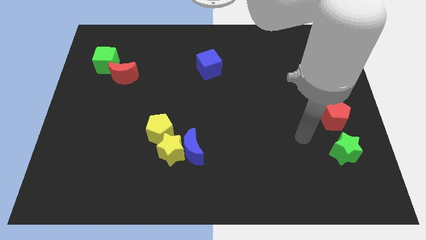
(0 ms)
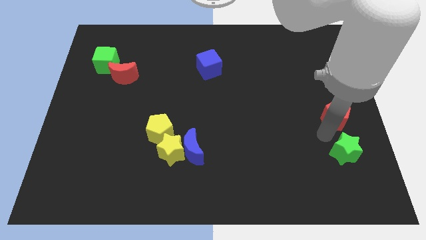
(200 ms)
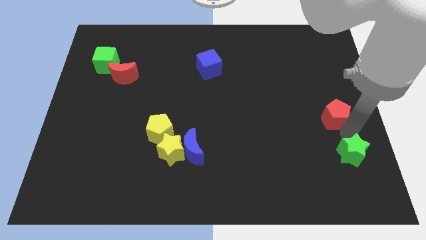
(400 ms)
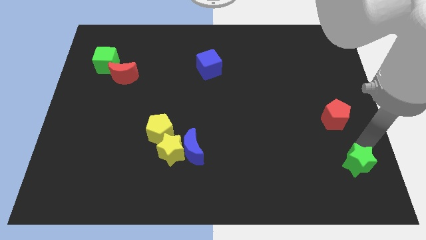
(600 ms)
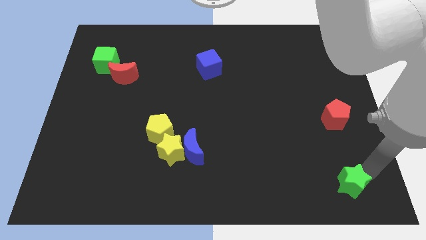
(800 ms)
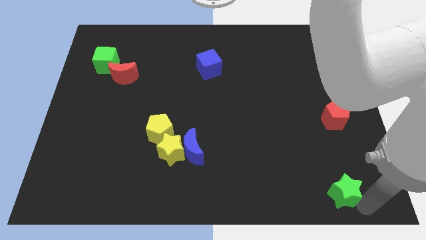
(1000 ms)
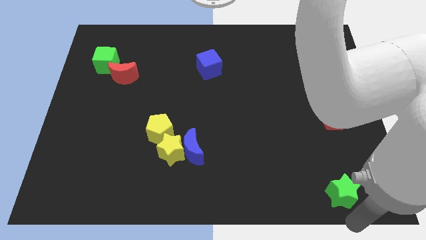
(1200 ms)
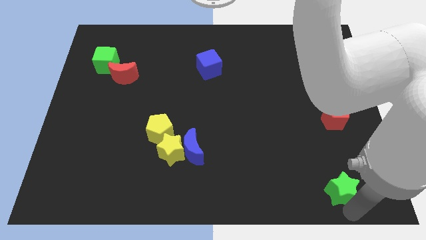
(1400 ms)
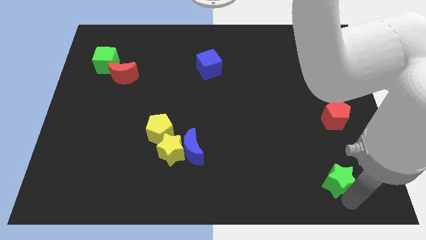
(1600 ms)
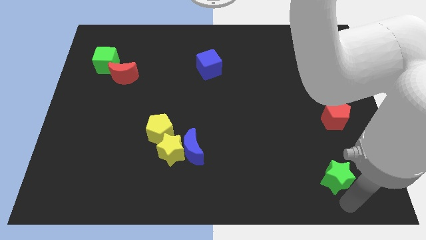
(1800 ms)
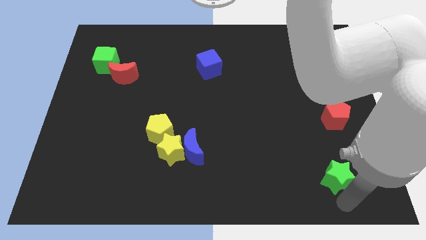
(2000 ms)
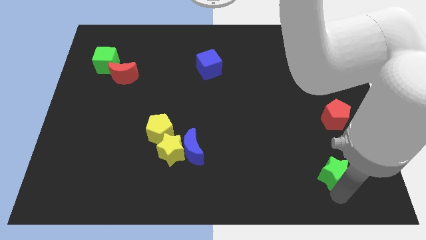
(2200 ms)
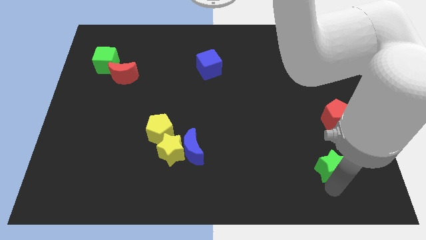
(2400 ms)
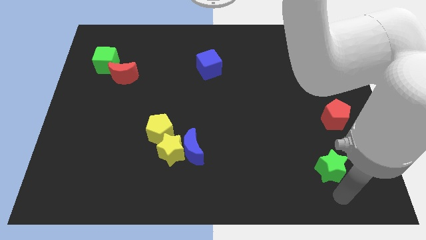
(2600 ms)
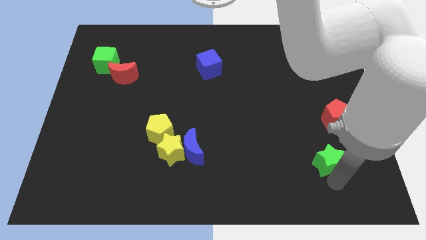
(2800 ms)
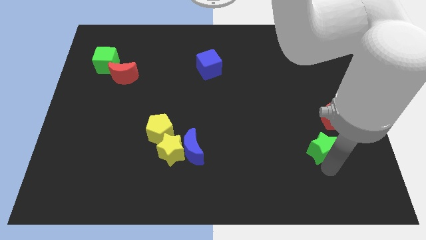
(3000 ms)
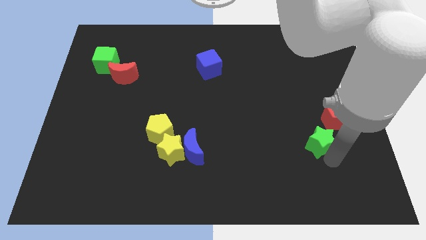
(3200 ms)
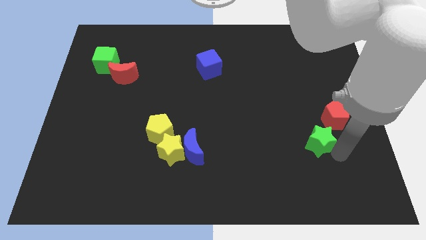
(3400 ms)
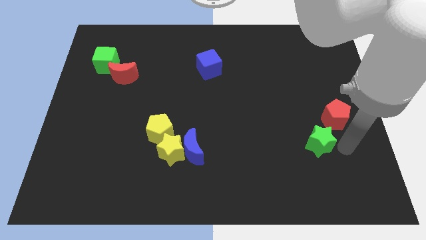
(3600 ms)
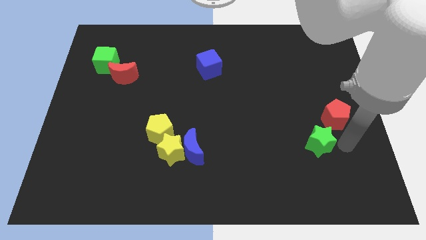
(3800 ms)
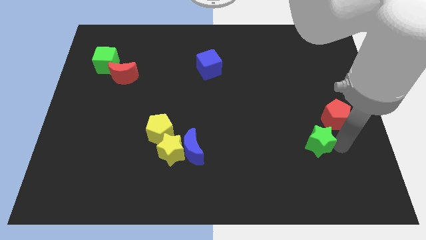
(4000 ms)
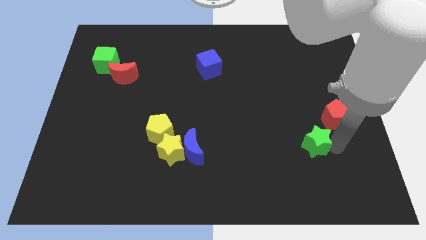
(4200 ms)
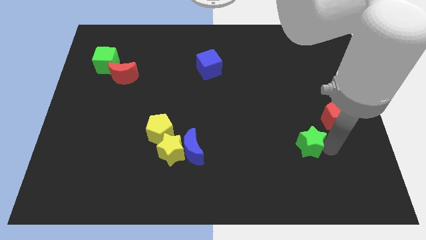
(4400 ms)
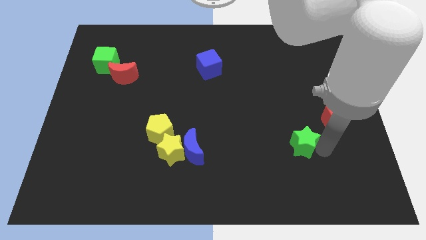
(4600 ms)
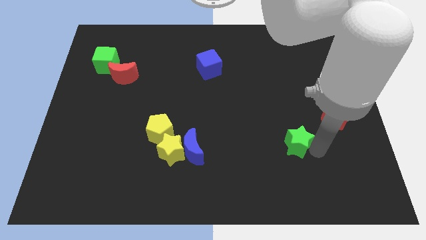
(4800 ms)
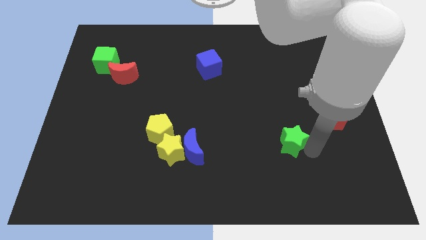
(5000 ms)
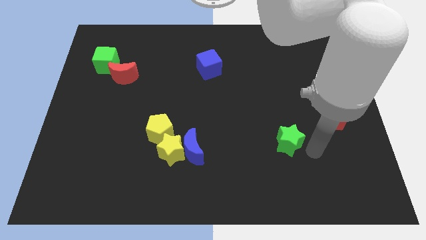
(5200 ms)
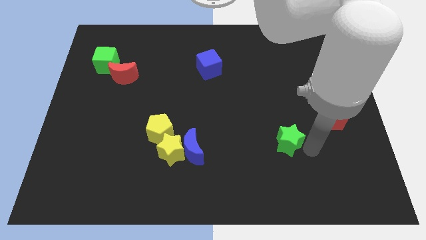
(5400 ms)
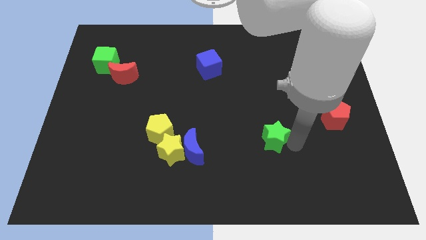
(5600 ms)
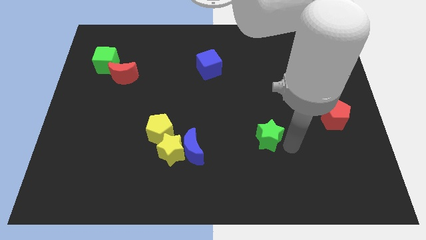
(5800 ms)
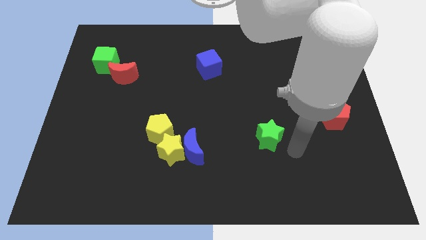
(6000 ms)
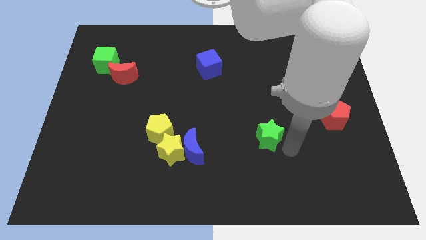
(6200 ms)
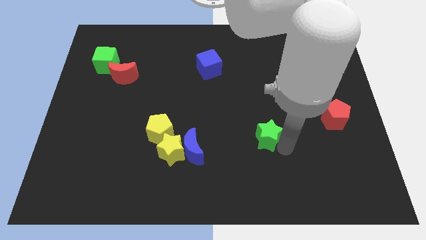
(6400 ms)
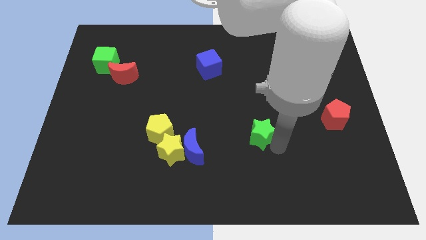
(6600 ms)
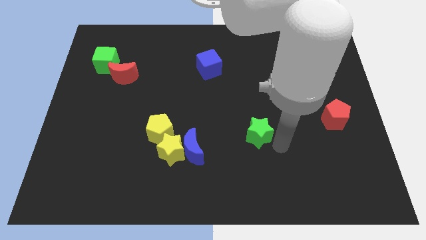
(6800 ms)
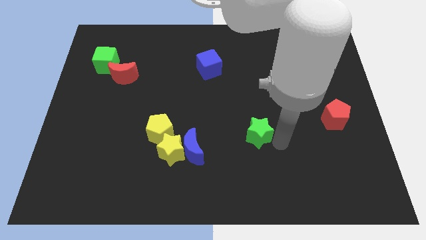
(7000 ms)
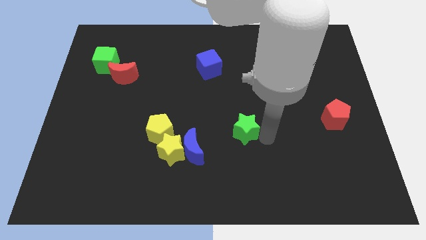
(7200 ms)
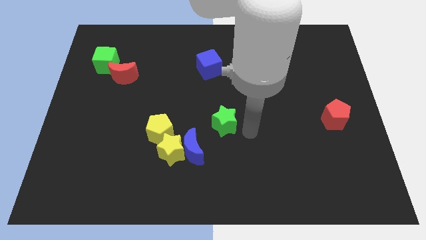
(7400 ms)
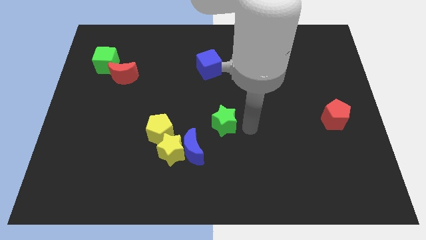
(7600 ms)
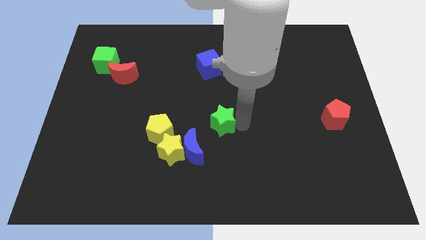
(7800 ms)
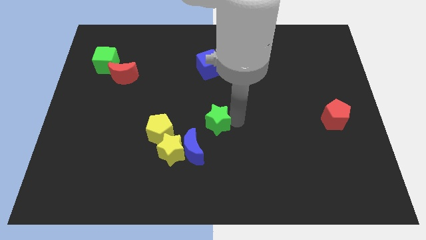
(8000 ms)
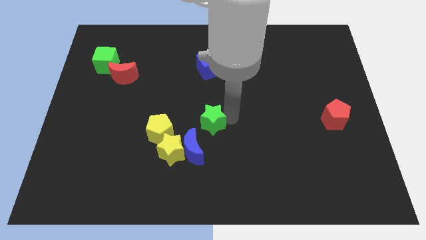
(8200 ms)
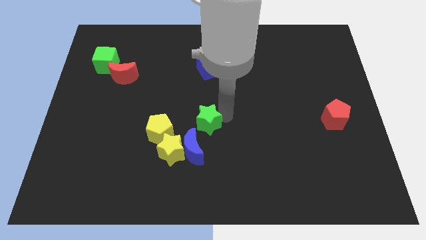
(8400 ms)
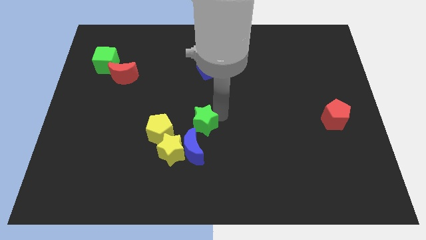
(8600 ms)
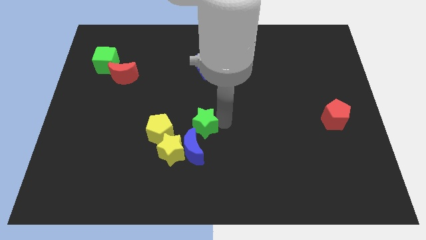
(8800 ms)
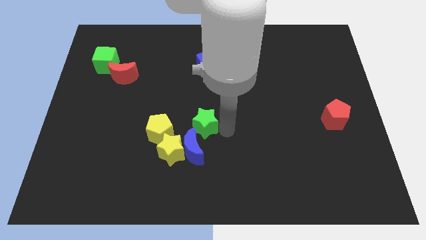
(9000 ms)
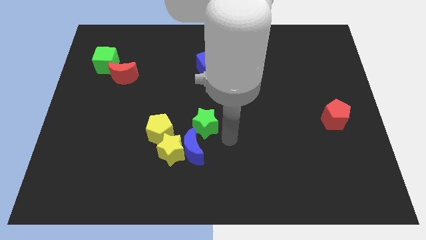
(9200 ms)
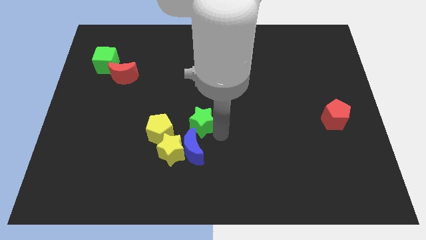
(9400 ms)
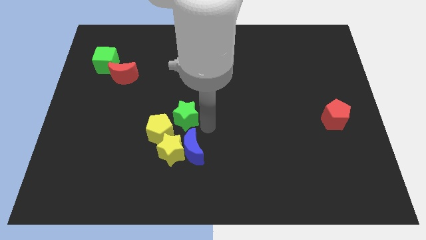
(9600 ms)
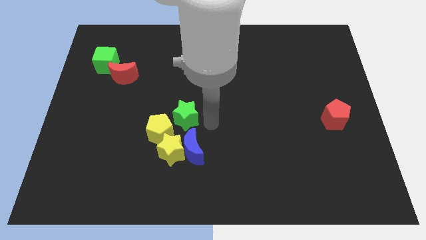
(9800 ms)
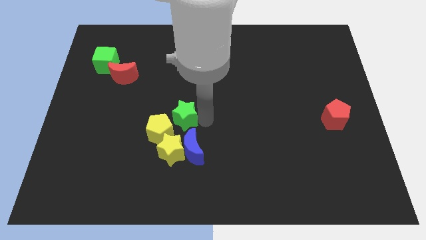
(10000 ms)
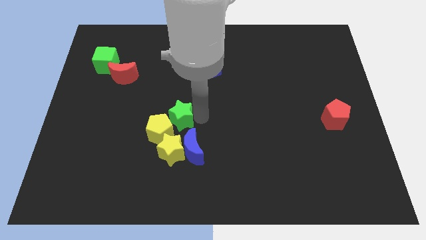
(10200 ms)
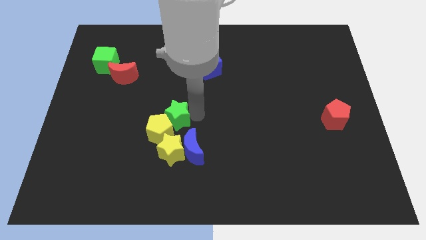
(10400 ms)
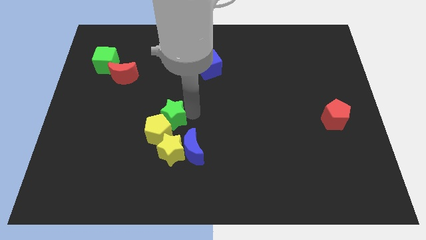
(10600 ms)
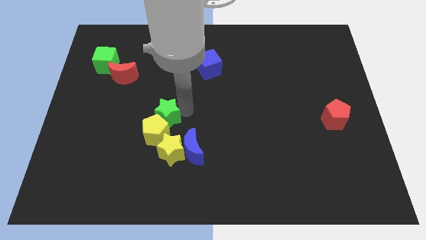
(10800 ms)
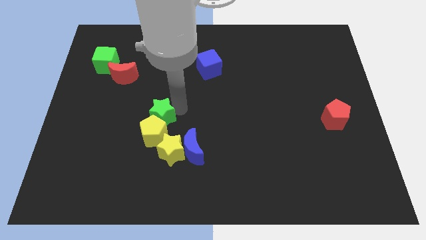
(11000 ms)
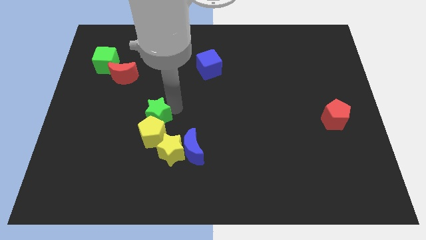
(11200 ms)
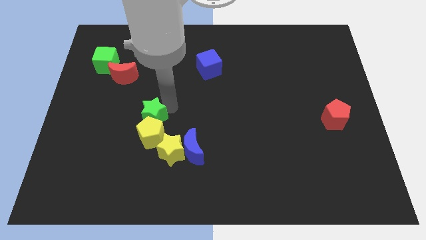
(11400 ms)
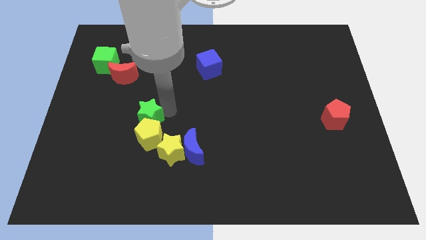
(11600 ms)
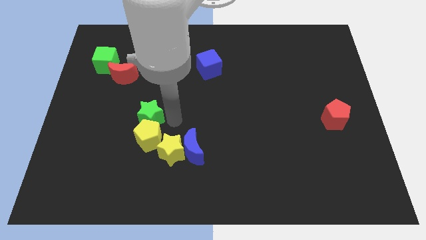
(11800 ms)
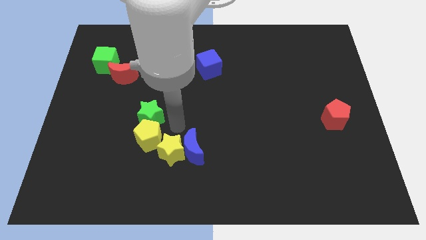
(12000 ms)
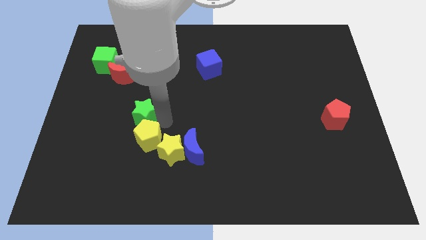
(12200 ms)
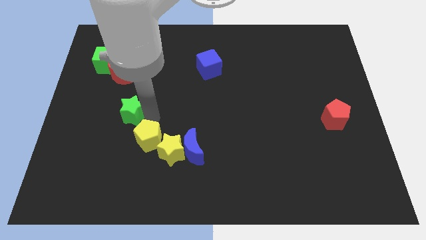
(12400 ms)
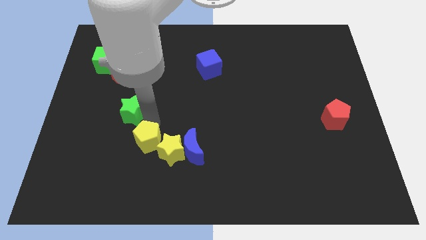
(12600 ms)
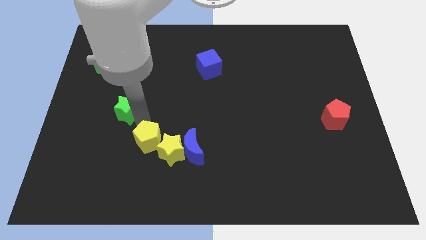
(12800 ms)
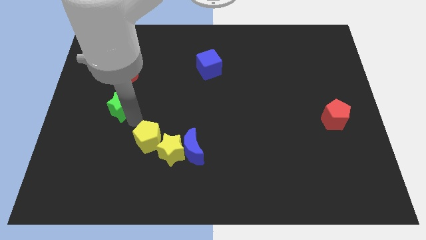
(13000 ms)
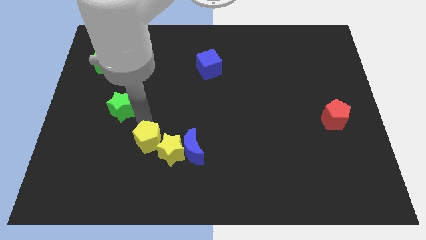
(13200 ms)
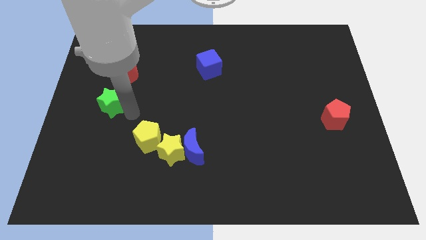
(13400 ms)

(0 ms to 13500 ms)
slide the green star to the bottom side of the green cube
